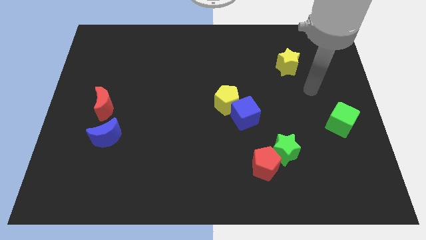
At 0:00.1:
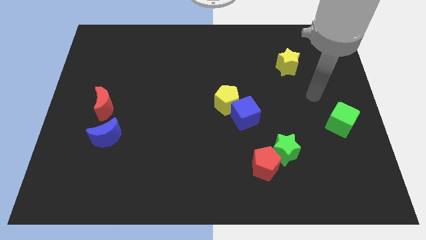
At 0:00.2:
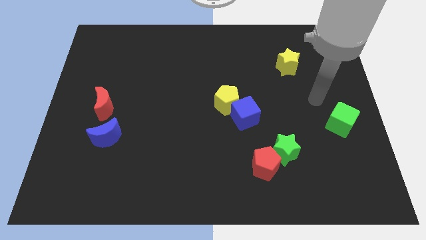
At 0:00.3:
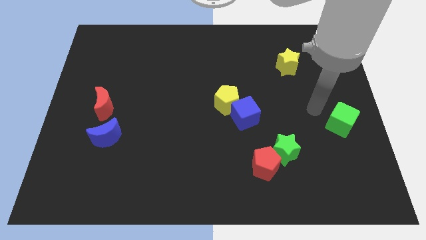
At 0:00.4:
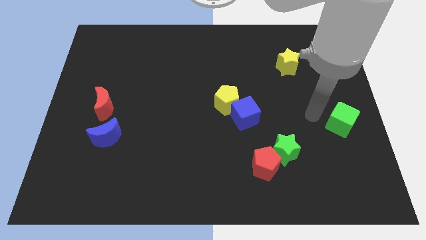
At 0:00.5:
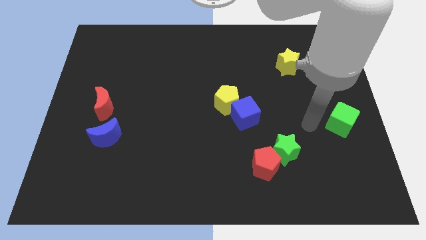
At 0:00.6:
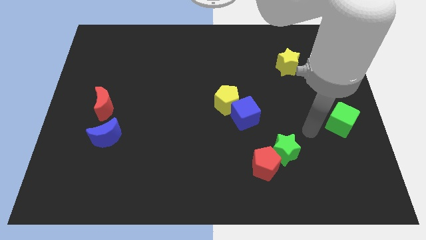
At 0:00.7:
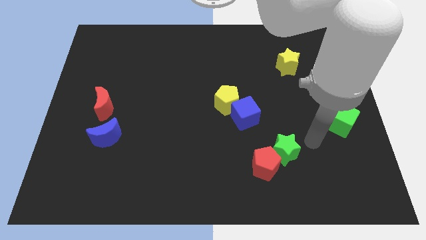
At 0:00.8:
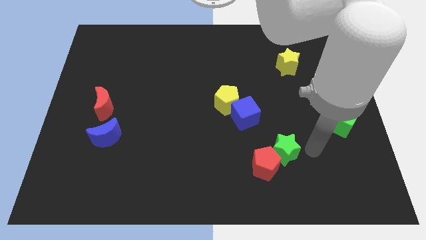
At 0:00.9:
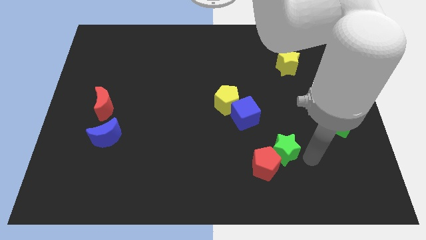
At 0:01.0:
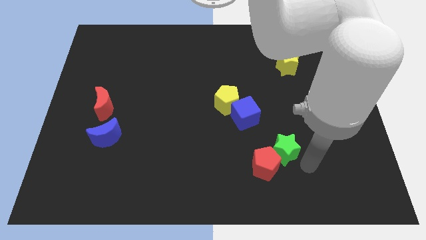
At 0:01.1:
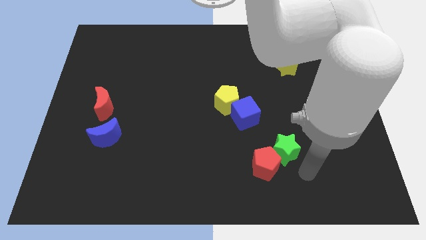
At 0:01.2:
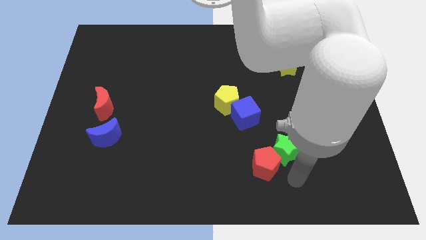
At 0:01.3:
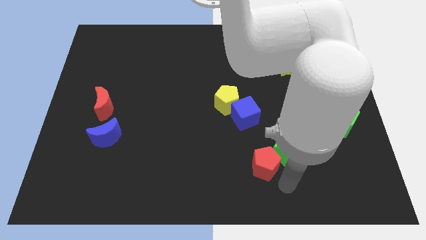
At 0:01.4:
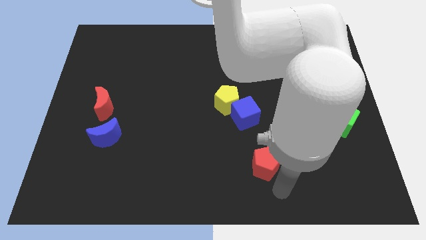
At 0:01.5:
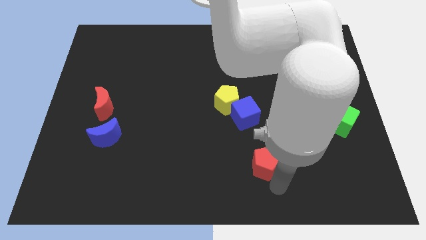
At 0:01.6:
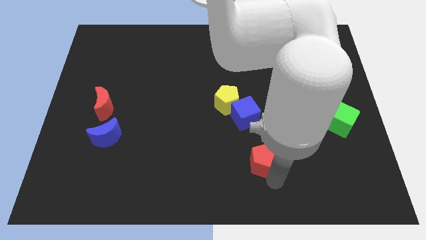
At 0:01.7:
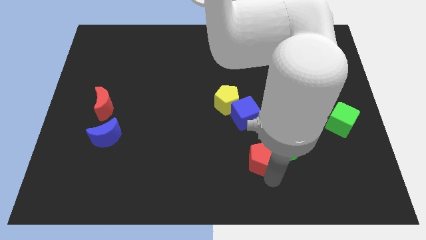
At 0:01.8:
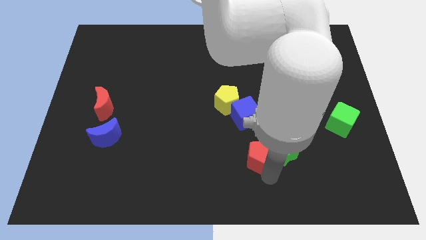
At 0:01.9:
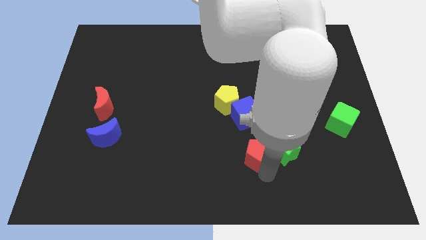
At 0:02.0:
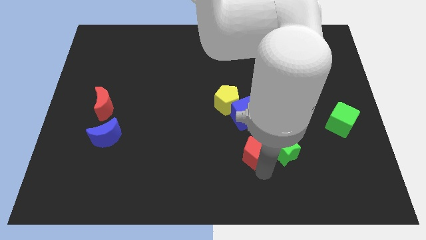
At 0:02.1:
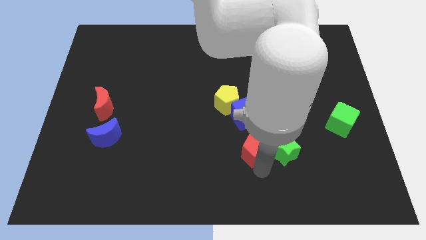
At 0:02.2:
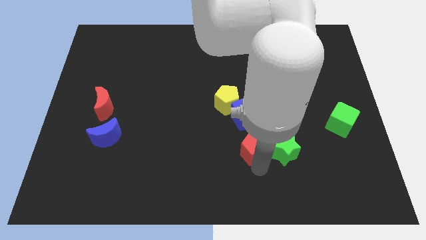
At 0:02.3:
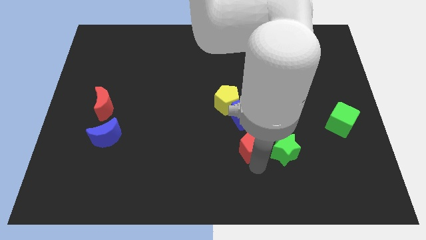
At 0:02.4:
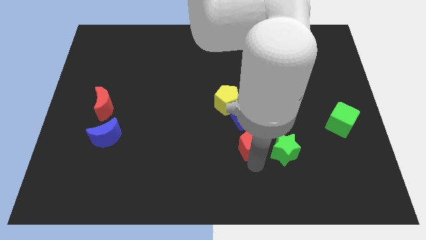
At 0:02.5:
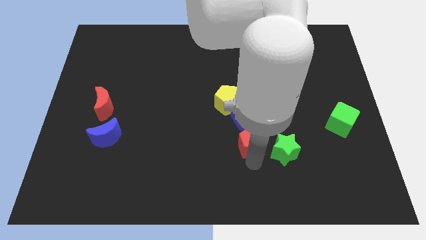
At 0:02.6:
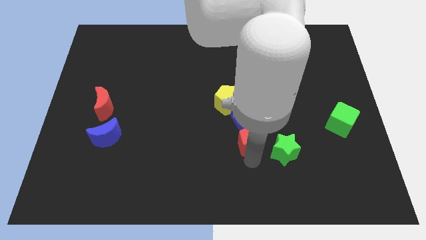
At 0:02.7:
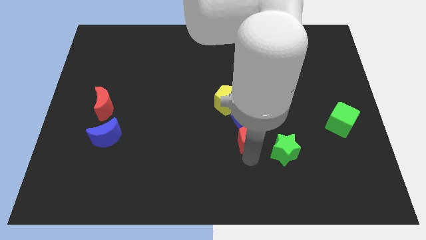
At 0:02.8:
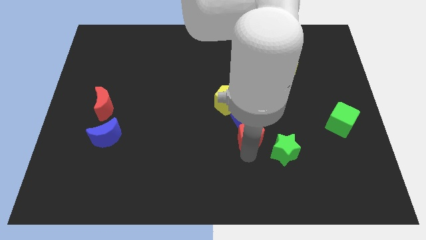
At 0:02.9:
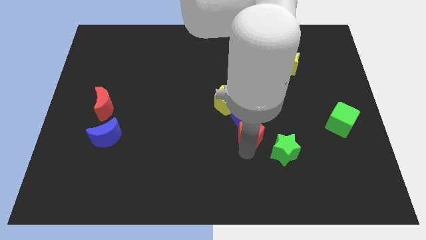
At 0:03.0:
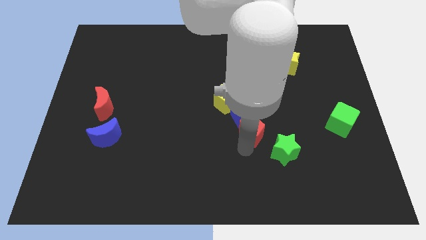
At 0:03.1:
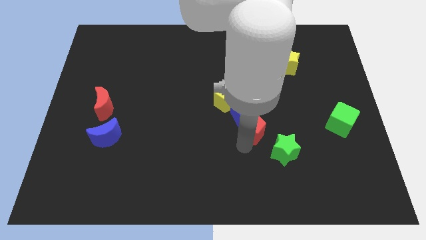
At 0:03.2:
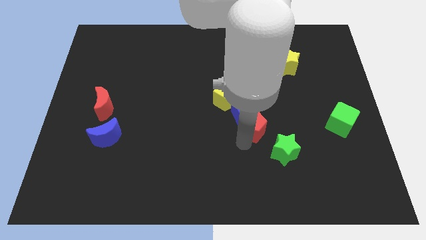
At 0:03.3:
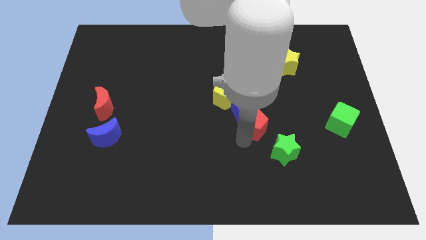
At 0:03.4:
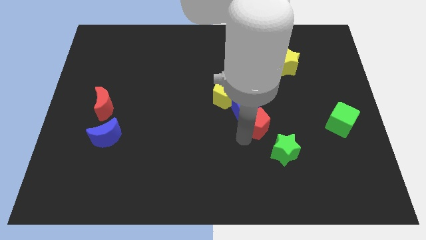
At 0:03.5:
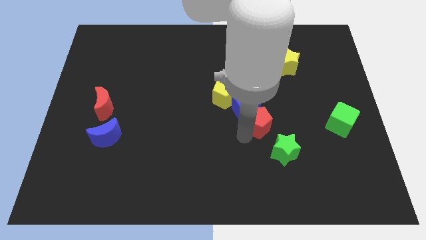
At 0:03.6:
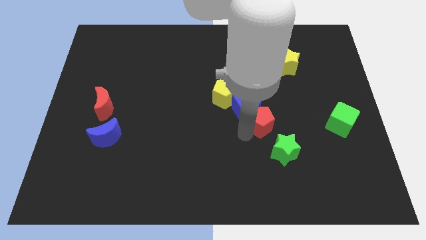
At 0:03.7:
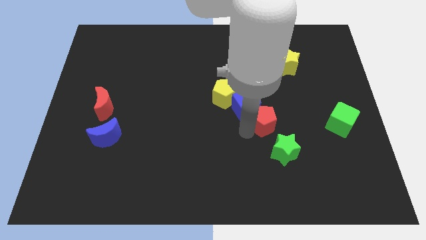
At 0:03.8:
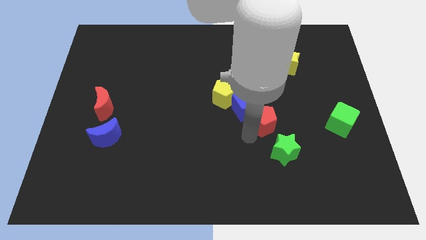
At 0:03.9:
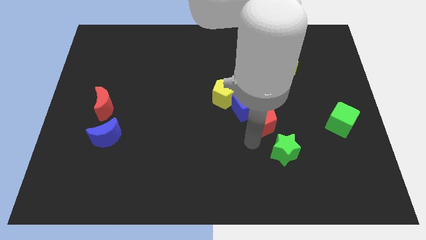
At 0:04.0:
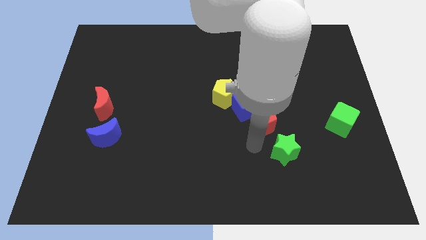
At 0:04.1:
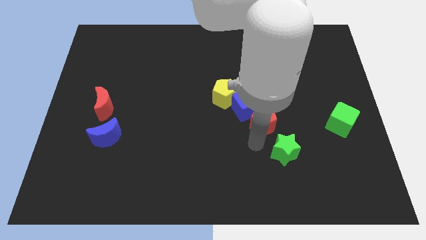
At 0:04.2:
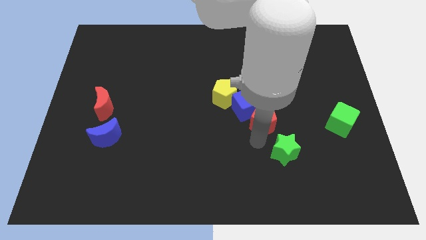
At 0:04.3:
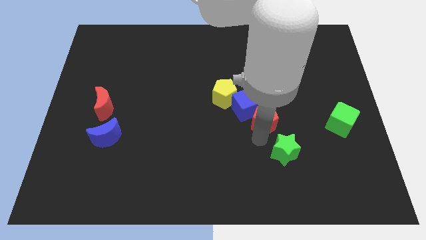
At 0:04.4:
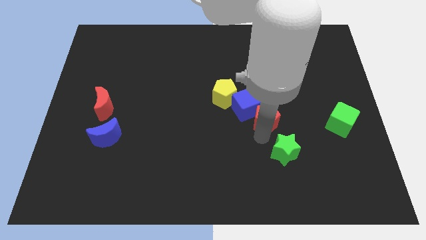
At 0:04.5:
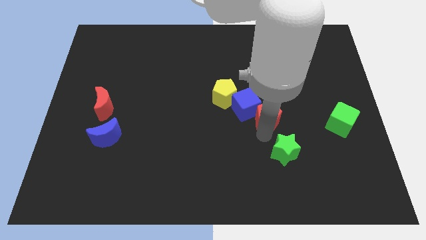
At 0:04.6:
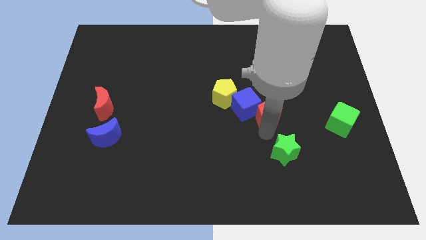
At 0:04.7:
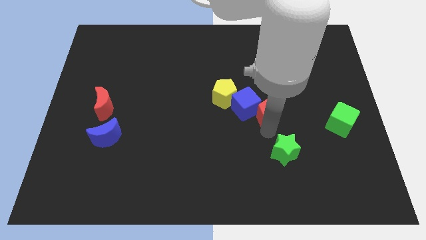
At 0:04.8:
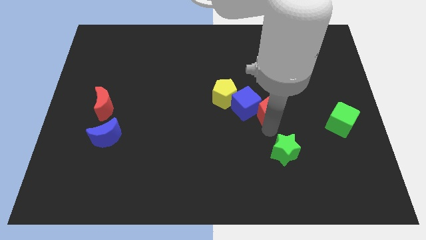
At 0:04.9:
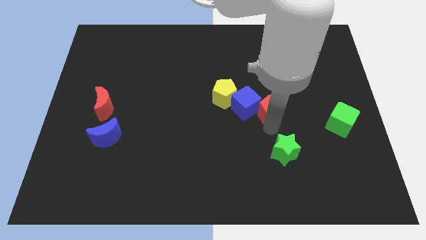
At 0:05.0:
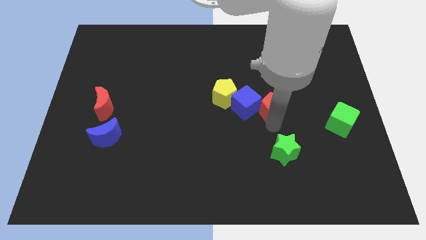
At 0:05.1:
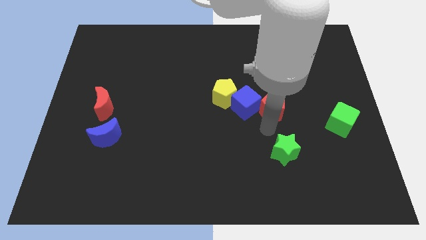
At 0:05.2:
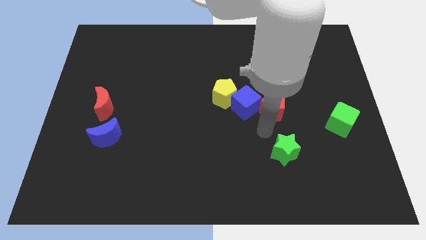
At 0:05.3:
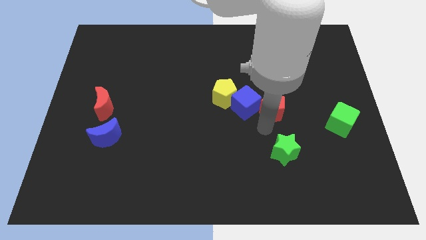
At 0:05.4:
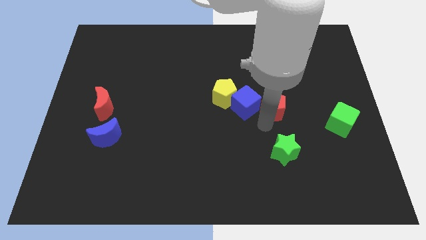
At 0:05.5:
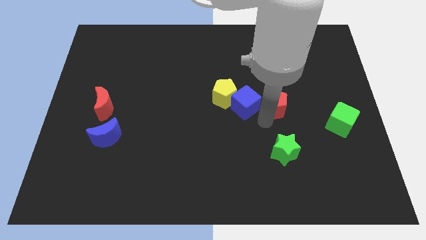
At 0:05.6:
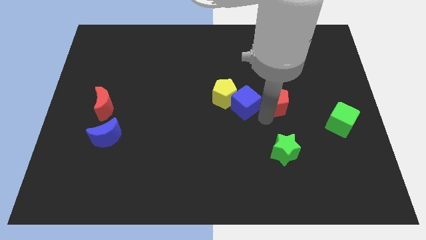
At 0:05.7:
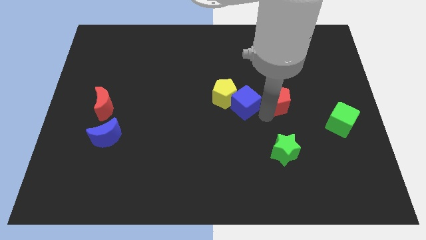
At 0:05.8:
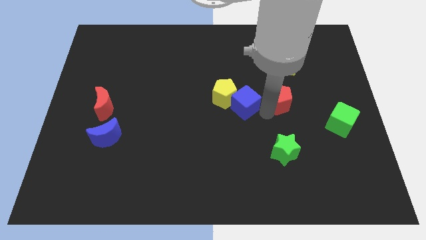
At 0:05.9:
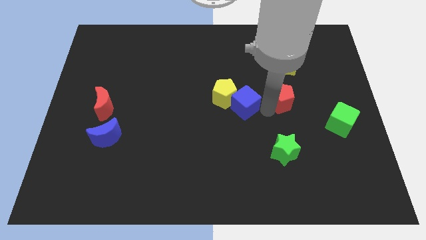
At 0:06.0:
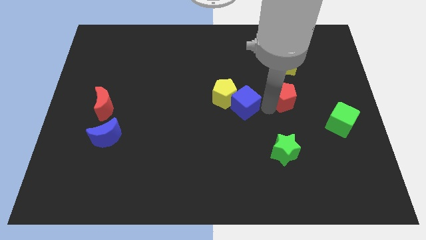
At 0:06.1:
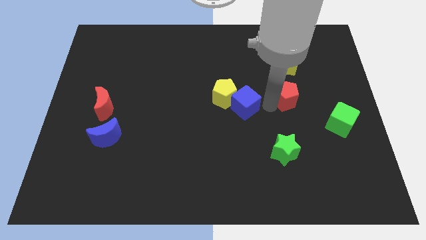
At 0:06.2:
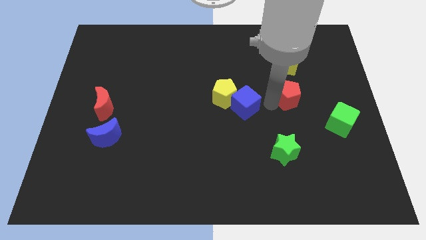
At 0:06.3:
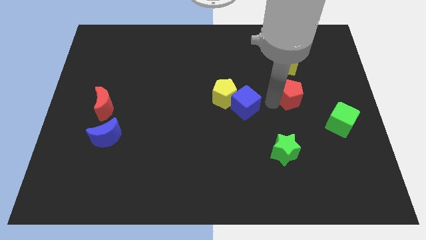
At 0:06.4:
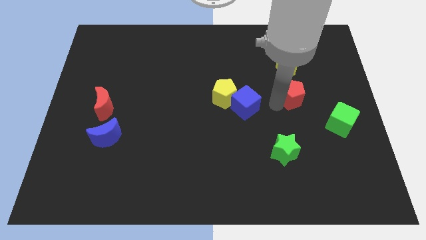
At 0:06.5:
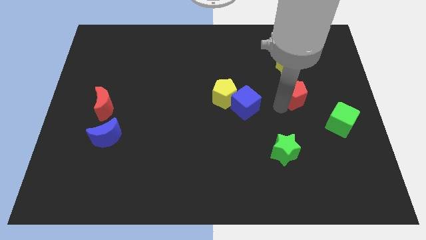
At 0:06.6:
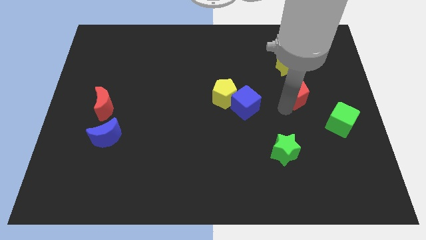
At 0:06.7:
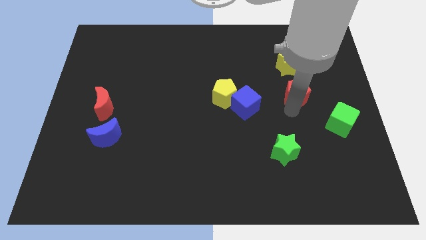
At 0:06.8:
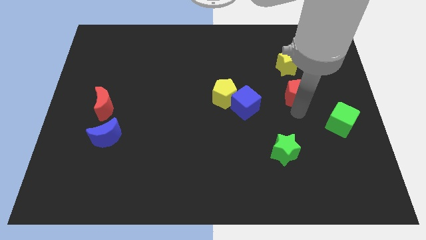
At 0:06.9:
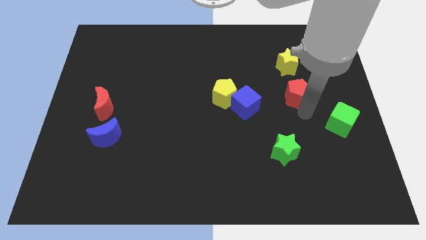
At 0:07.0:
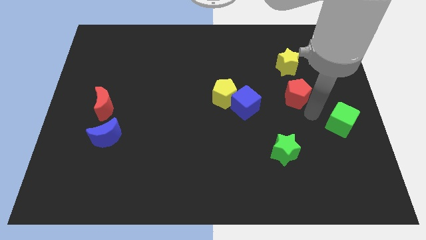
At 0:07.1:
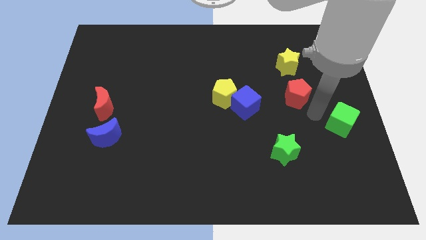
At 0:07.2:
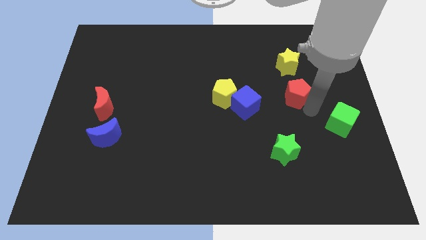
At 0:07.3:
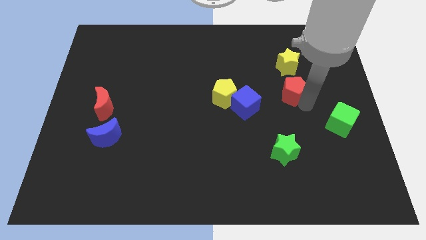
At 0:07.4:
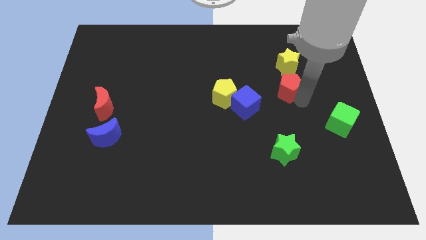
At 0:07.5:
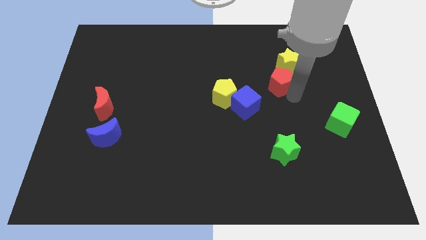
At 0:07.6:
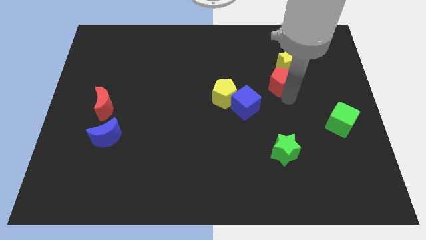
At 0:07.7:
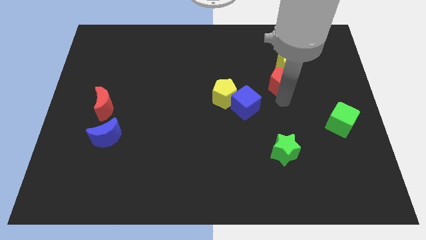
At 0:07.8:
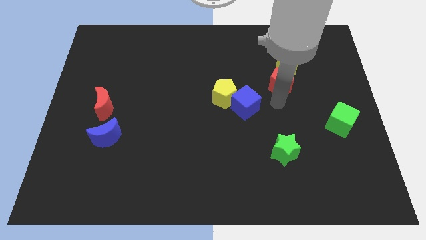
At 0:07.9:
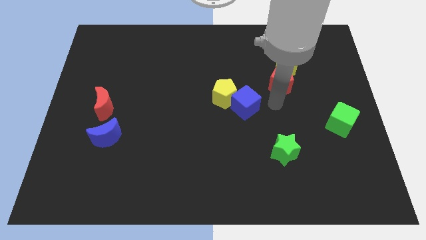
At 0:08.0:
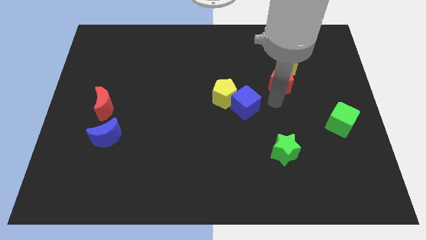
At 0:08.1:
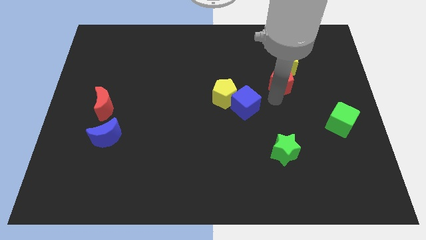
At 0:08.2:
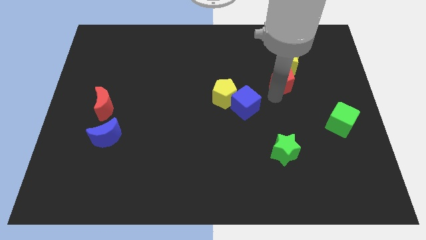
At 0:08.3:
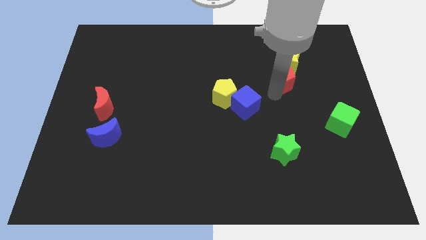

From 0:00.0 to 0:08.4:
slide the red pentagon towards the yellow star
